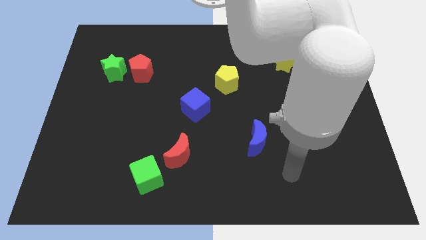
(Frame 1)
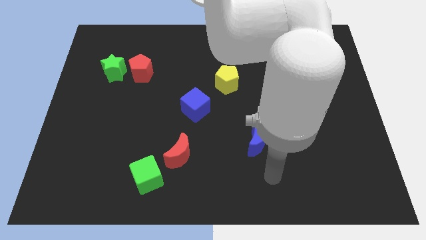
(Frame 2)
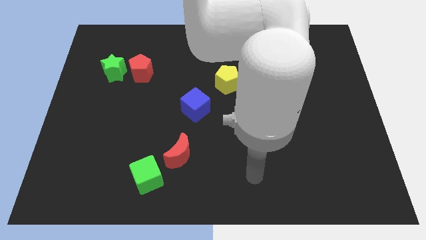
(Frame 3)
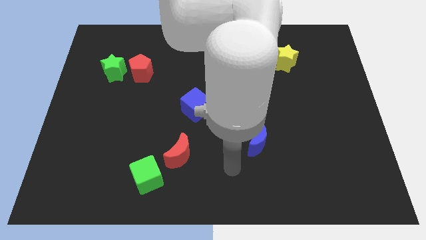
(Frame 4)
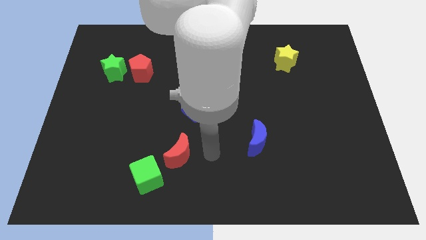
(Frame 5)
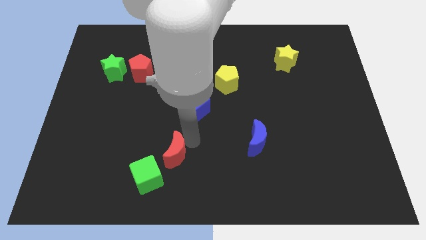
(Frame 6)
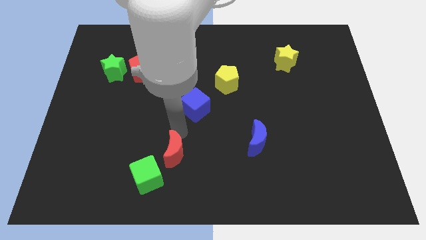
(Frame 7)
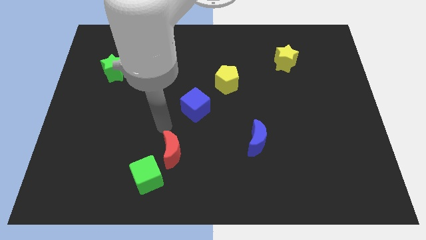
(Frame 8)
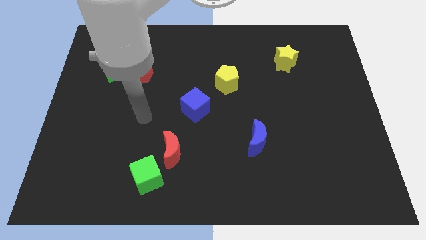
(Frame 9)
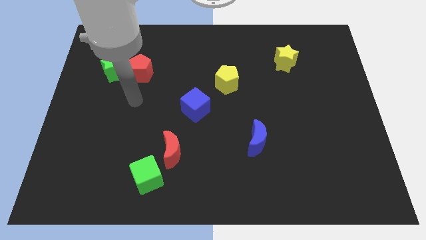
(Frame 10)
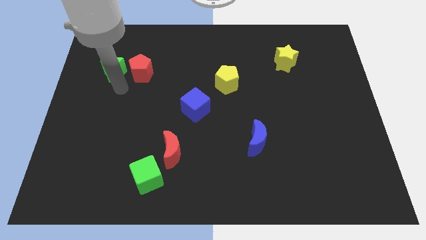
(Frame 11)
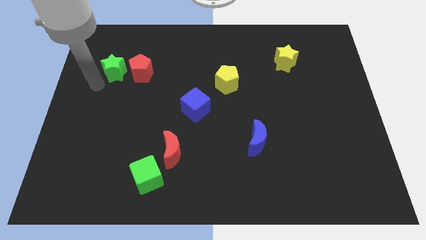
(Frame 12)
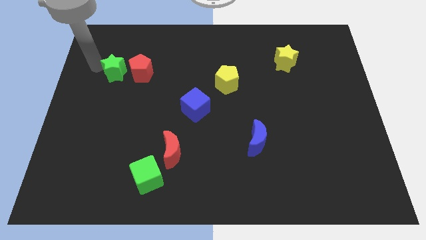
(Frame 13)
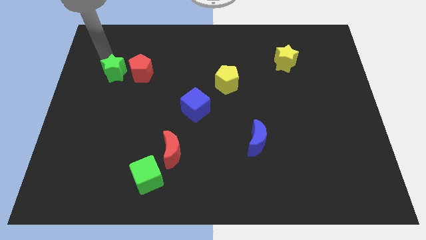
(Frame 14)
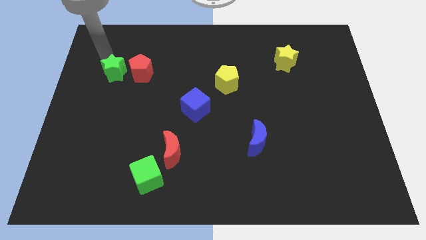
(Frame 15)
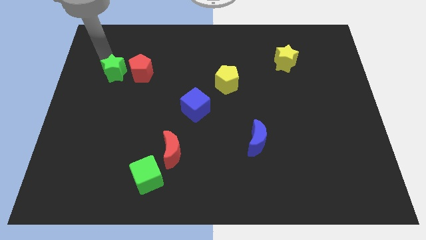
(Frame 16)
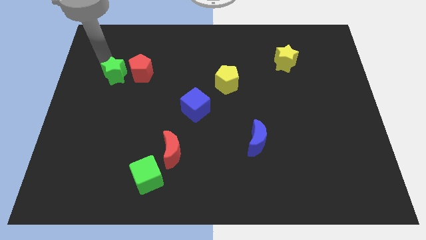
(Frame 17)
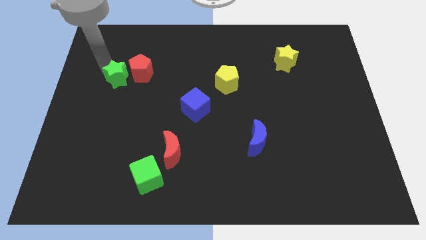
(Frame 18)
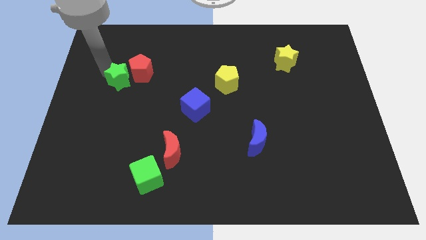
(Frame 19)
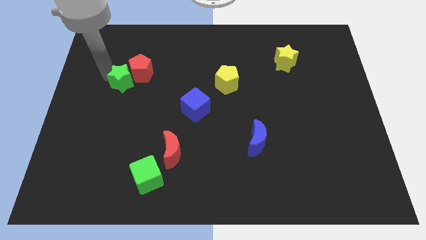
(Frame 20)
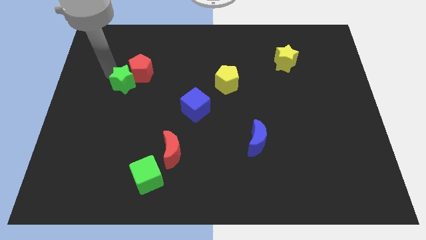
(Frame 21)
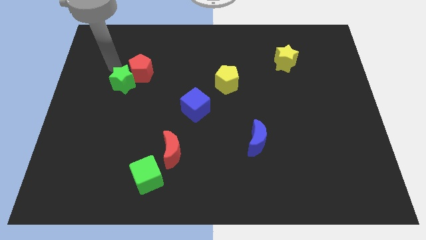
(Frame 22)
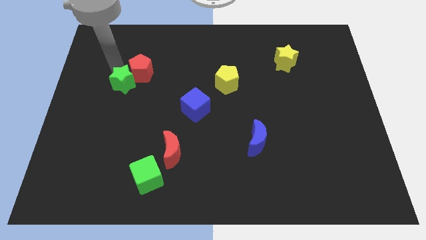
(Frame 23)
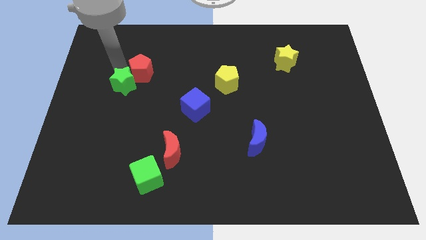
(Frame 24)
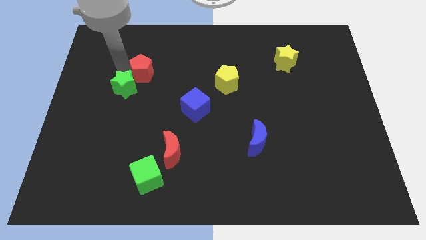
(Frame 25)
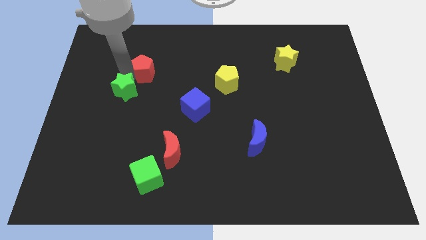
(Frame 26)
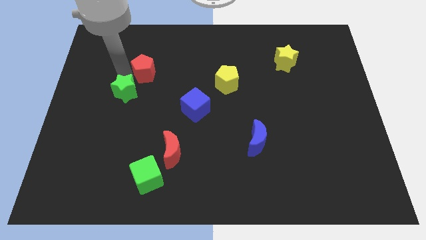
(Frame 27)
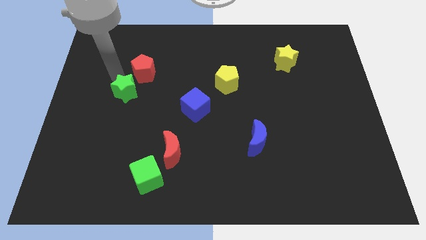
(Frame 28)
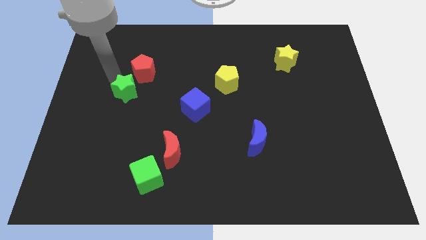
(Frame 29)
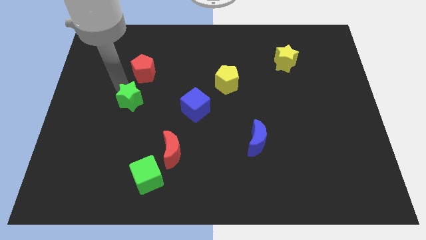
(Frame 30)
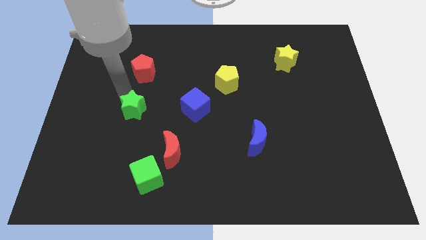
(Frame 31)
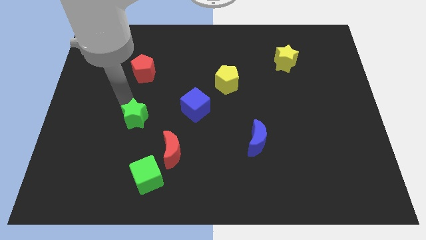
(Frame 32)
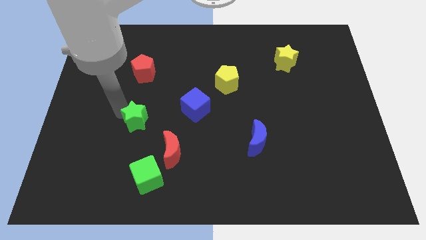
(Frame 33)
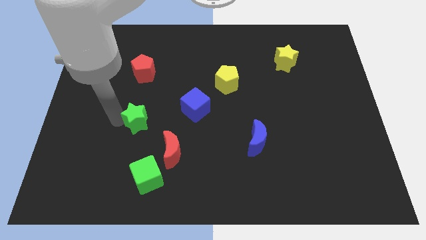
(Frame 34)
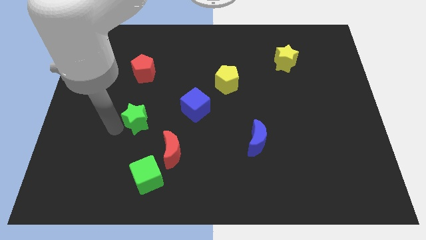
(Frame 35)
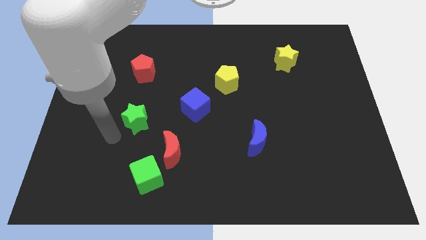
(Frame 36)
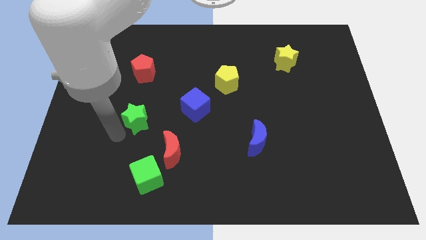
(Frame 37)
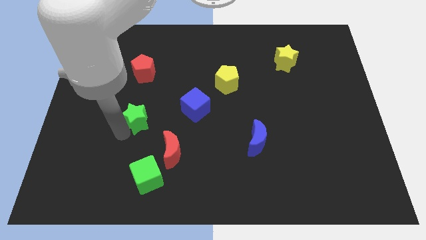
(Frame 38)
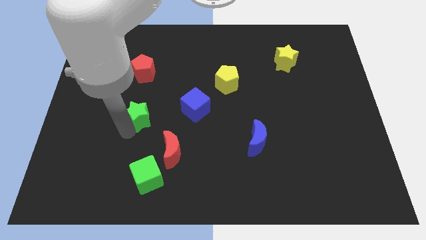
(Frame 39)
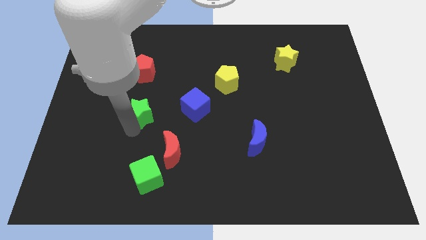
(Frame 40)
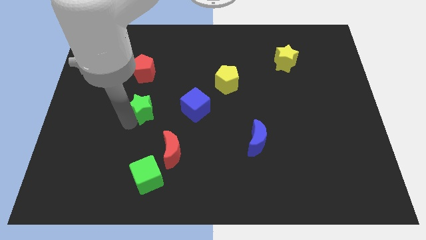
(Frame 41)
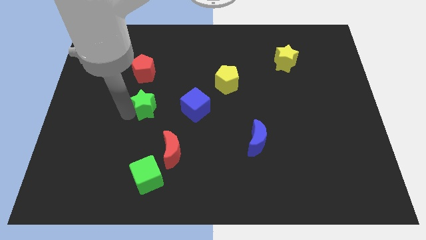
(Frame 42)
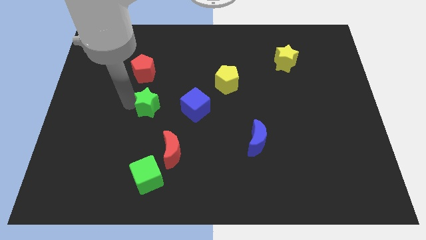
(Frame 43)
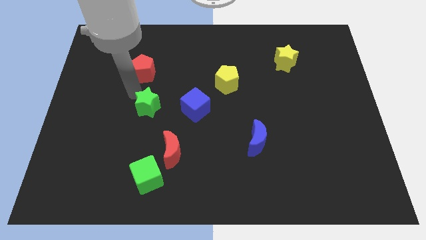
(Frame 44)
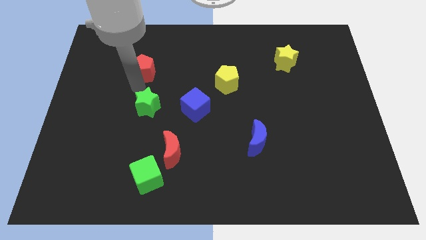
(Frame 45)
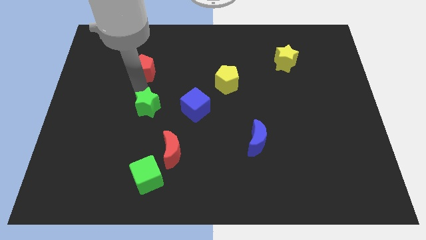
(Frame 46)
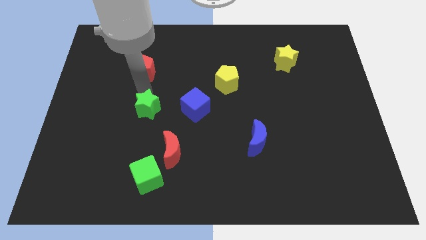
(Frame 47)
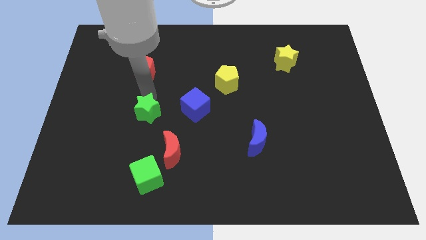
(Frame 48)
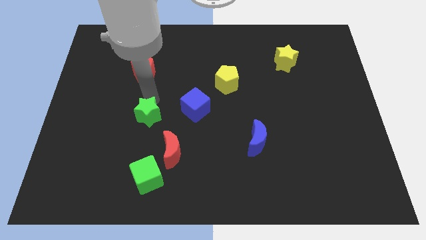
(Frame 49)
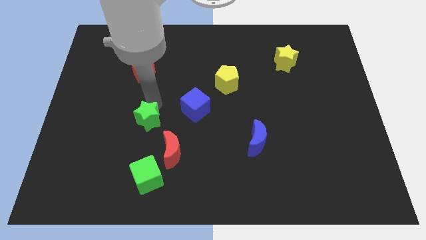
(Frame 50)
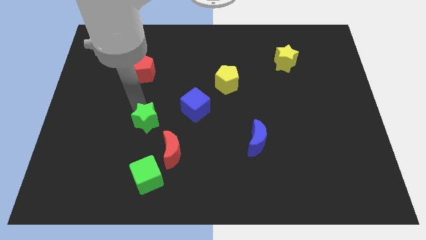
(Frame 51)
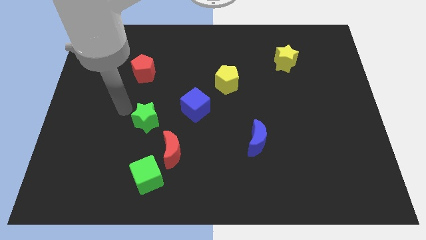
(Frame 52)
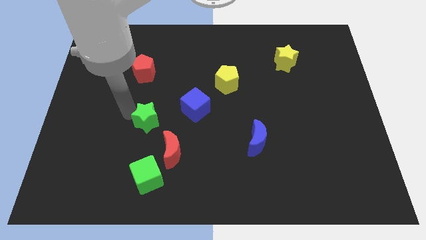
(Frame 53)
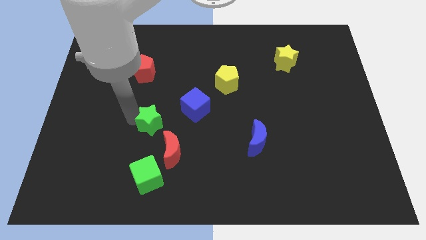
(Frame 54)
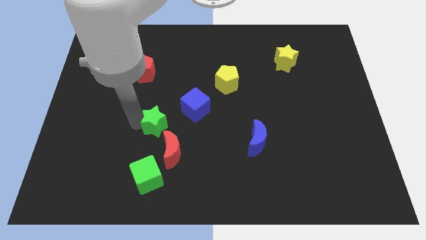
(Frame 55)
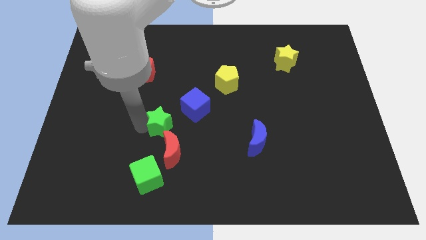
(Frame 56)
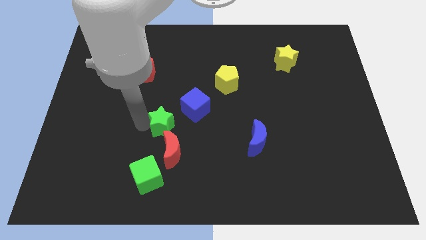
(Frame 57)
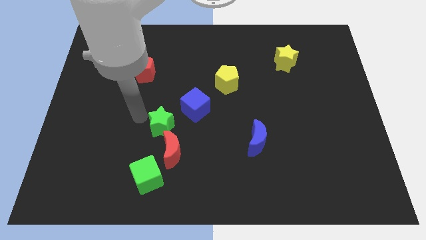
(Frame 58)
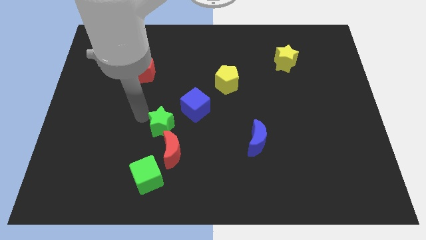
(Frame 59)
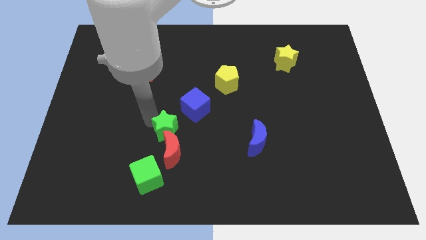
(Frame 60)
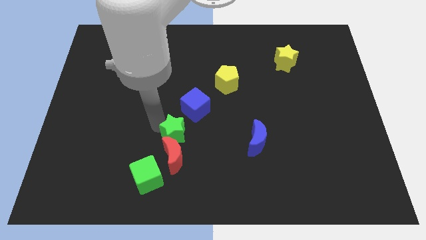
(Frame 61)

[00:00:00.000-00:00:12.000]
push the green star to the bottom of the blue cube

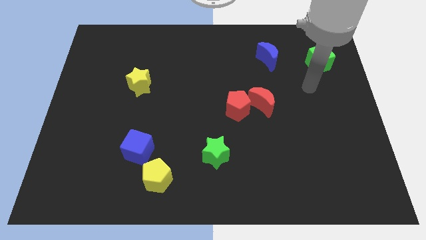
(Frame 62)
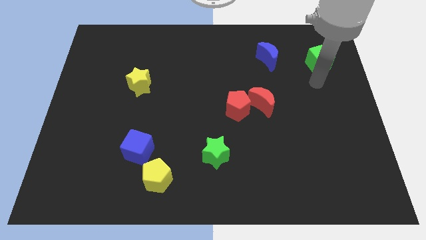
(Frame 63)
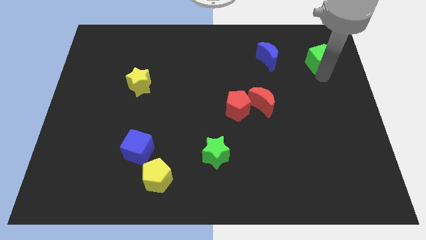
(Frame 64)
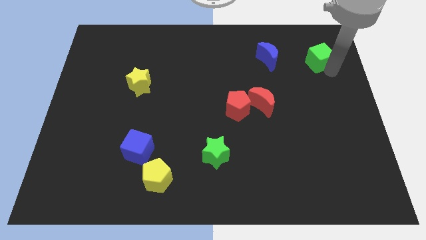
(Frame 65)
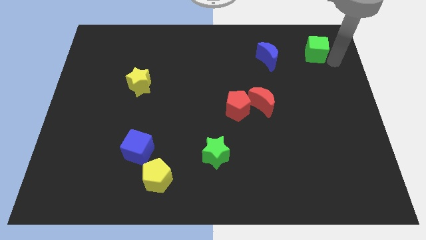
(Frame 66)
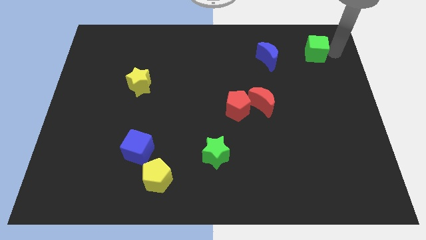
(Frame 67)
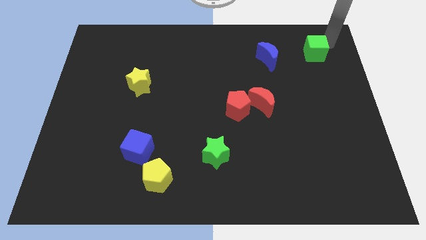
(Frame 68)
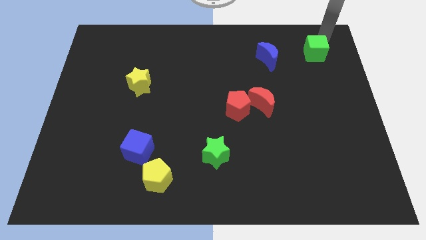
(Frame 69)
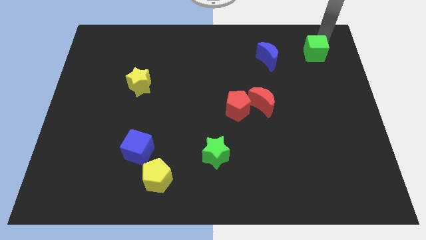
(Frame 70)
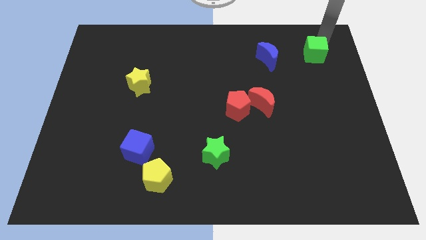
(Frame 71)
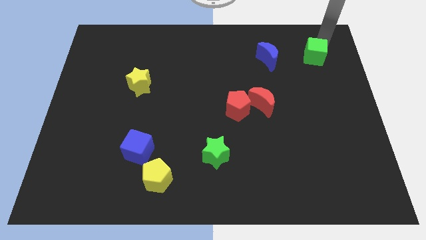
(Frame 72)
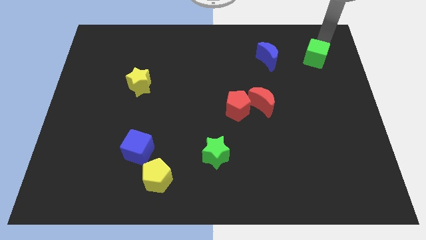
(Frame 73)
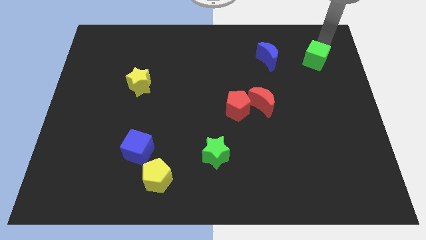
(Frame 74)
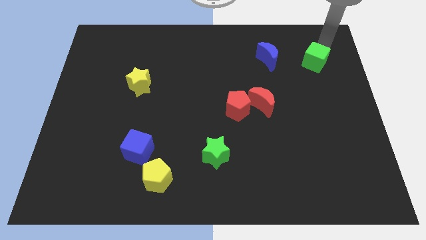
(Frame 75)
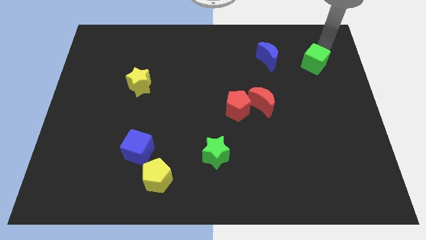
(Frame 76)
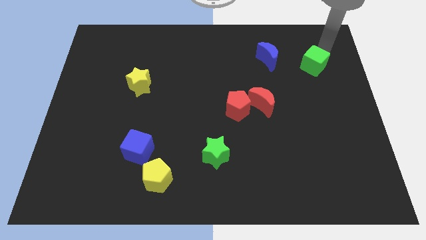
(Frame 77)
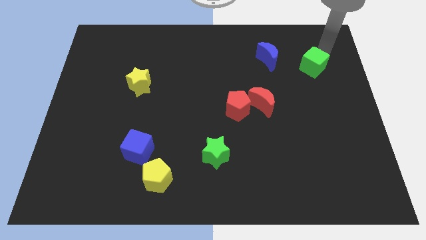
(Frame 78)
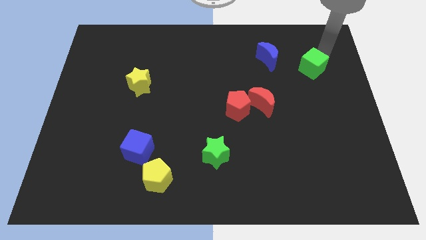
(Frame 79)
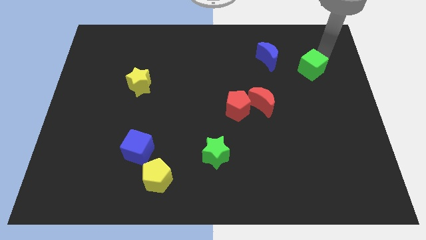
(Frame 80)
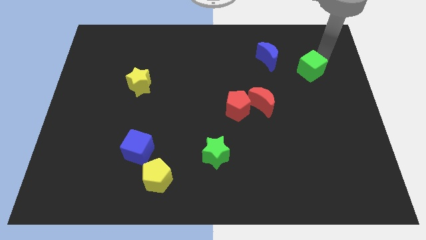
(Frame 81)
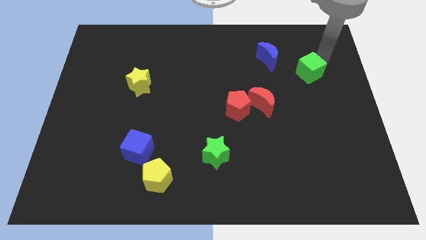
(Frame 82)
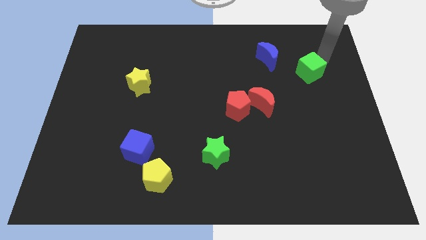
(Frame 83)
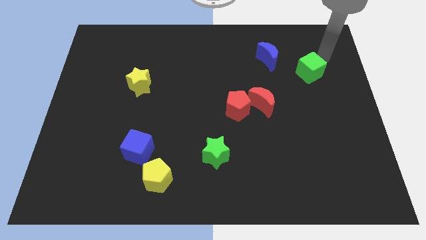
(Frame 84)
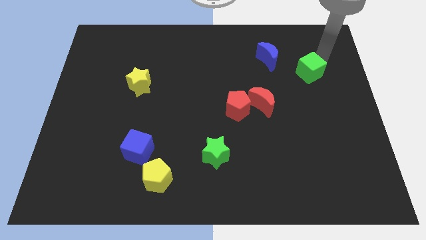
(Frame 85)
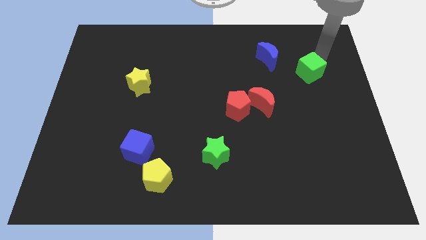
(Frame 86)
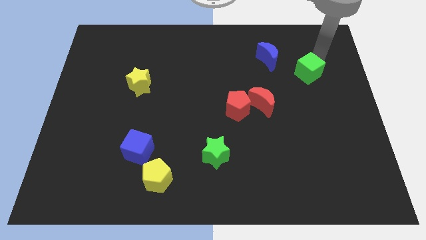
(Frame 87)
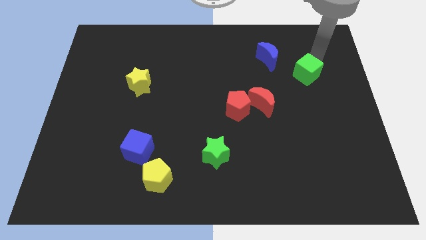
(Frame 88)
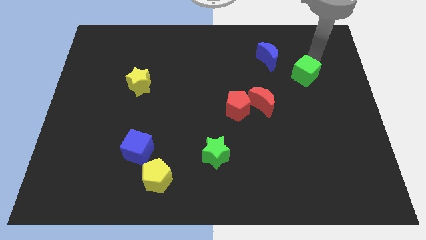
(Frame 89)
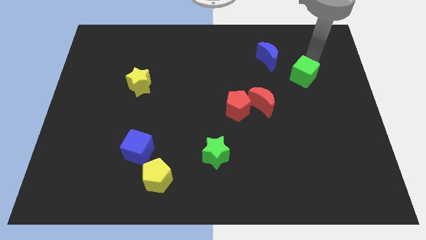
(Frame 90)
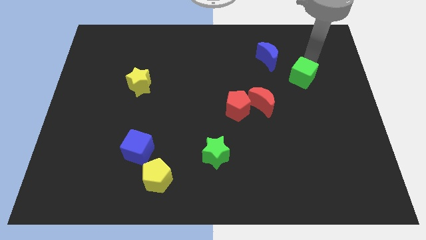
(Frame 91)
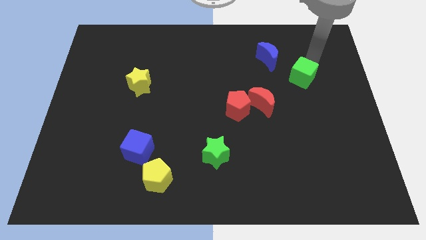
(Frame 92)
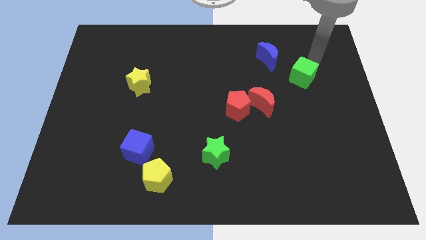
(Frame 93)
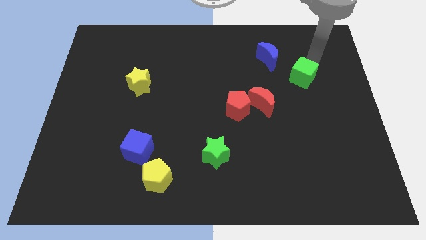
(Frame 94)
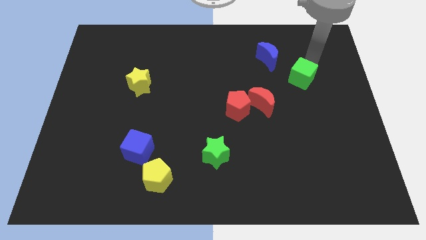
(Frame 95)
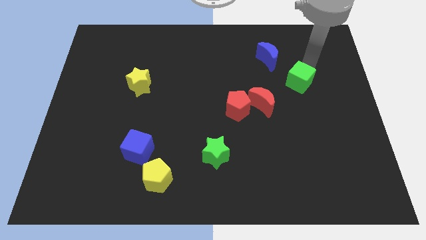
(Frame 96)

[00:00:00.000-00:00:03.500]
slide the green cube to the top right of the red moon
